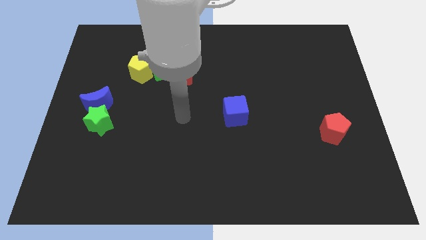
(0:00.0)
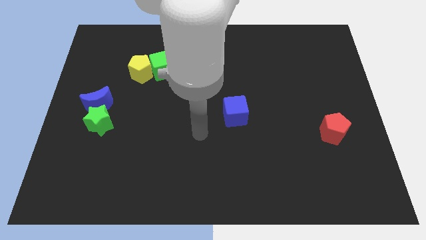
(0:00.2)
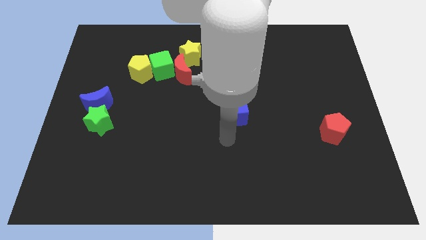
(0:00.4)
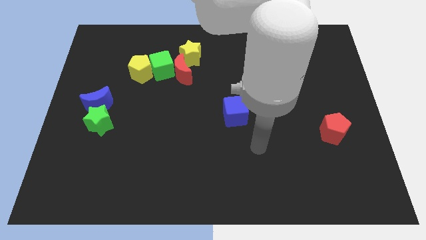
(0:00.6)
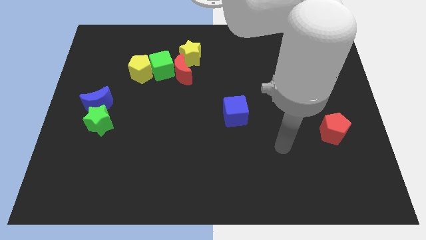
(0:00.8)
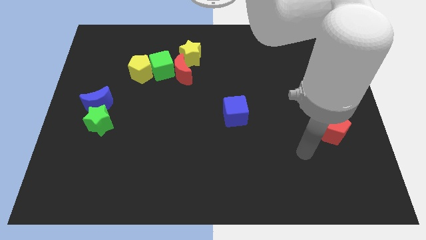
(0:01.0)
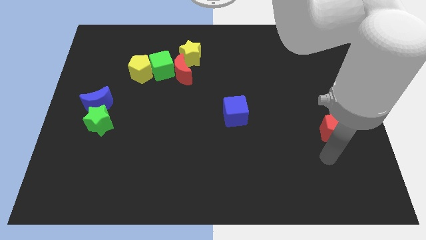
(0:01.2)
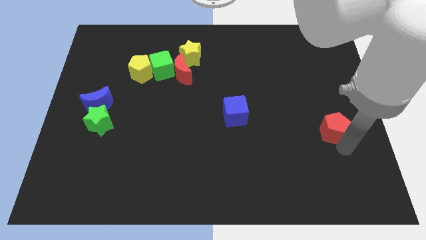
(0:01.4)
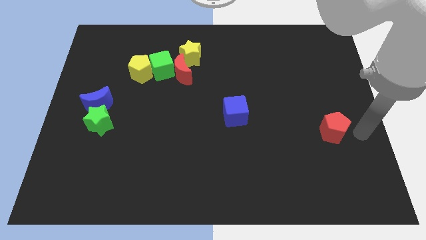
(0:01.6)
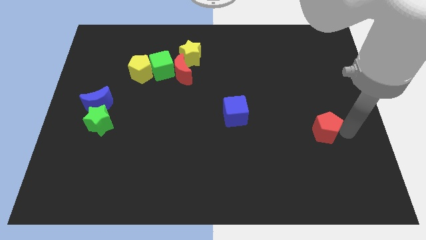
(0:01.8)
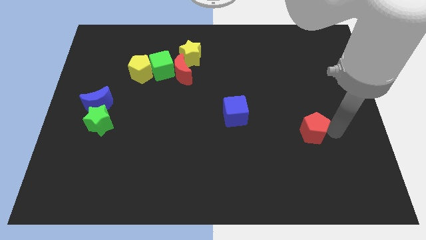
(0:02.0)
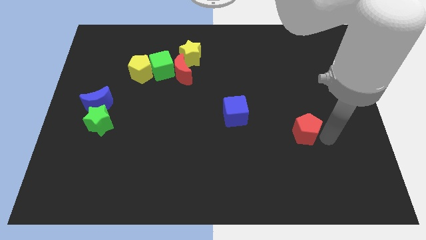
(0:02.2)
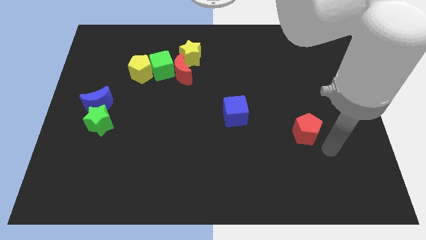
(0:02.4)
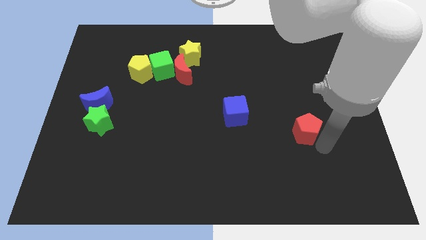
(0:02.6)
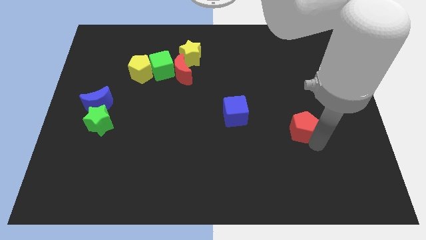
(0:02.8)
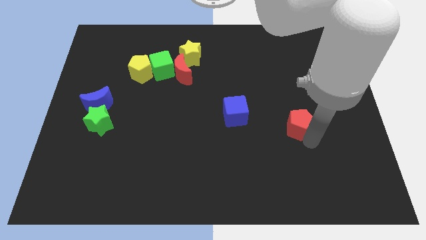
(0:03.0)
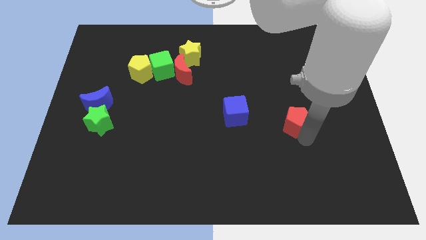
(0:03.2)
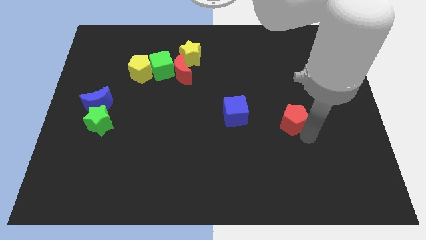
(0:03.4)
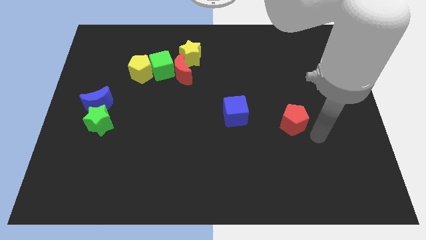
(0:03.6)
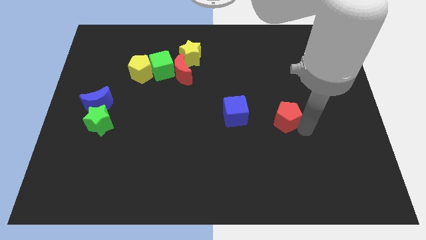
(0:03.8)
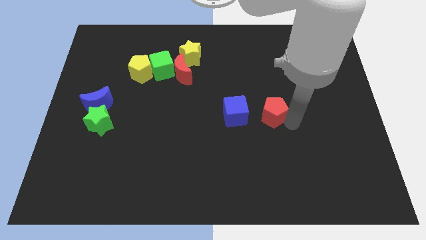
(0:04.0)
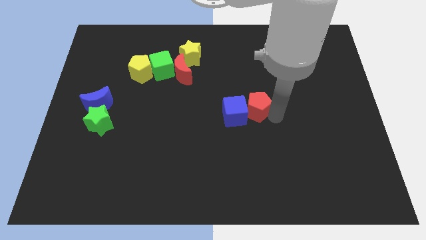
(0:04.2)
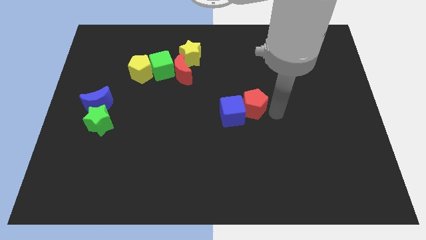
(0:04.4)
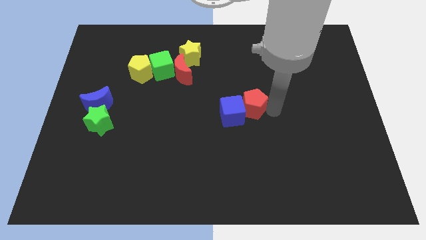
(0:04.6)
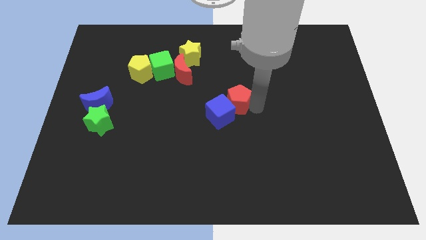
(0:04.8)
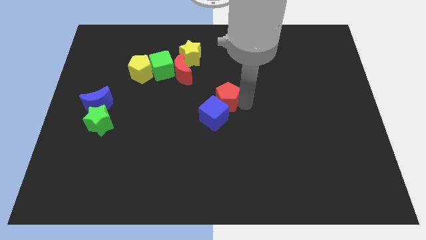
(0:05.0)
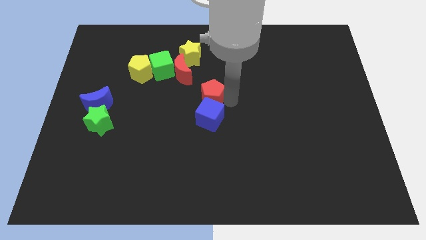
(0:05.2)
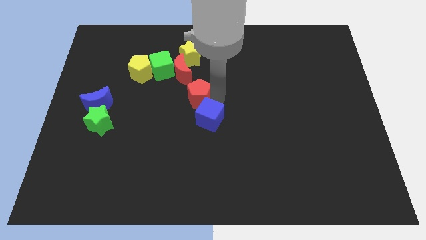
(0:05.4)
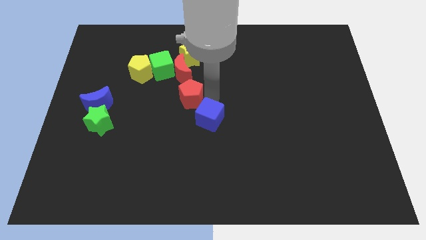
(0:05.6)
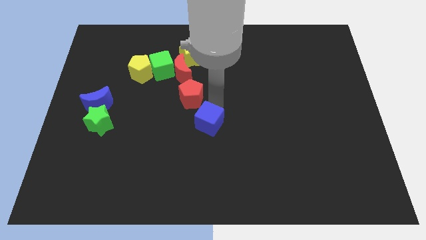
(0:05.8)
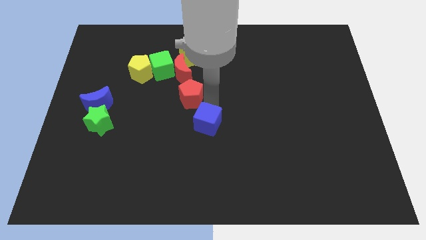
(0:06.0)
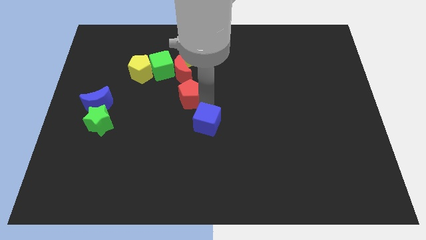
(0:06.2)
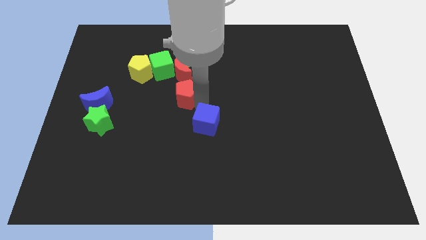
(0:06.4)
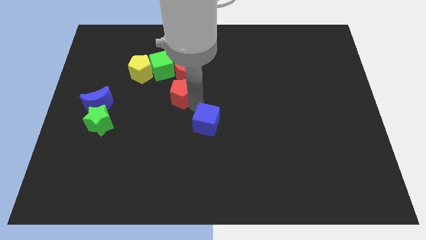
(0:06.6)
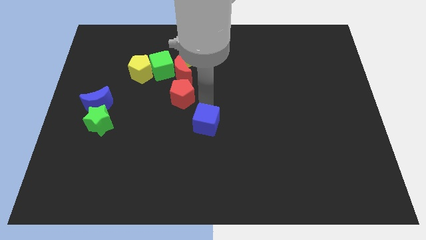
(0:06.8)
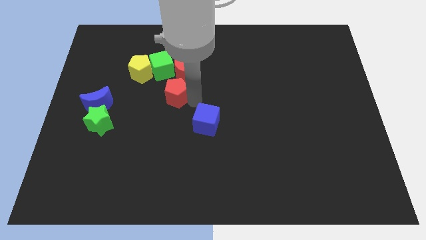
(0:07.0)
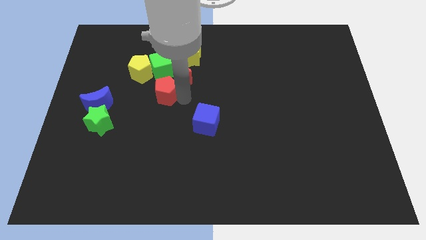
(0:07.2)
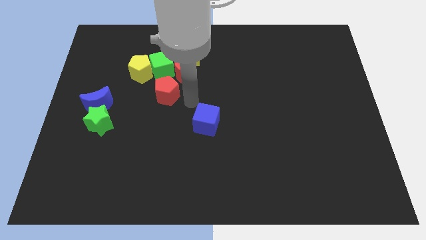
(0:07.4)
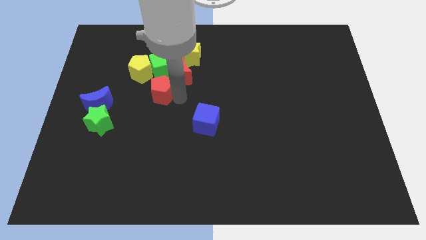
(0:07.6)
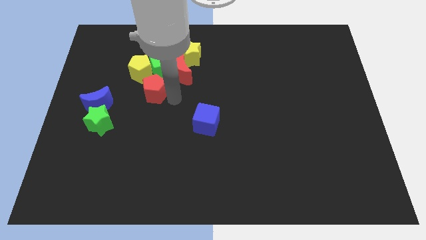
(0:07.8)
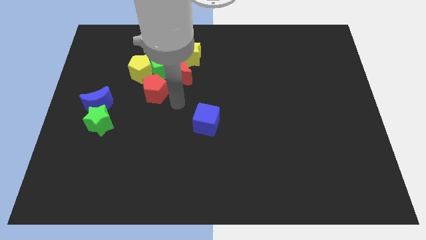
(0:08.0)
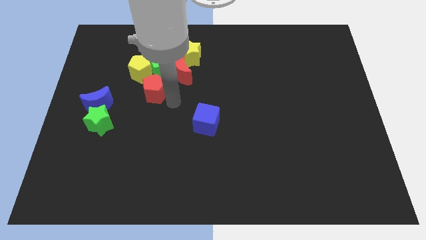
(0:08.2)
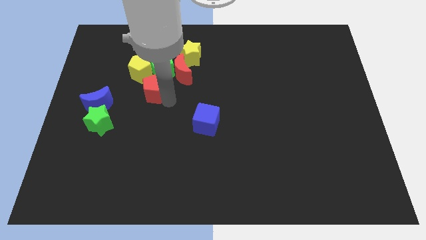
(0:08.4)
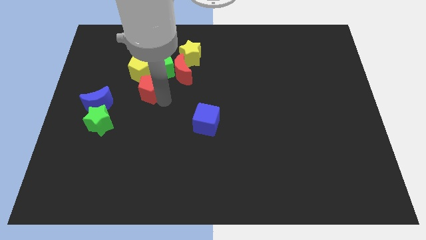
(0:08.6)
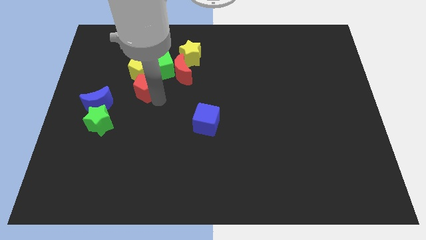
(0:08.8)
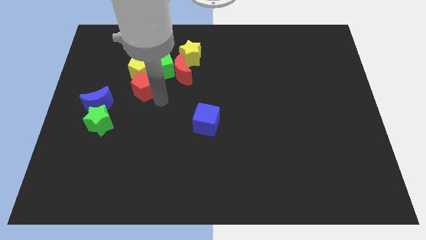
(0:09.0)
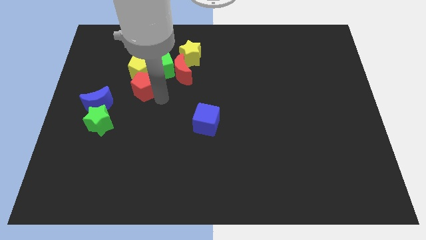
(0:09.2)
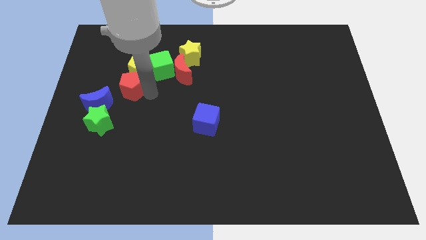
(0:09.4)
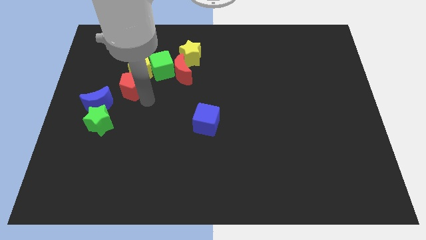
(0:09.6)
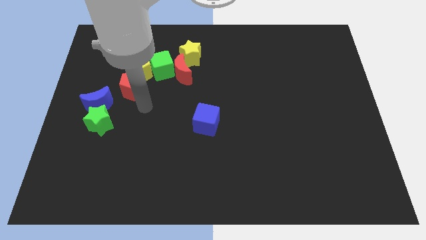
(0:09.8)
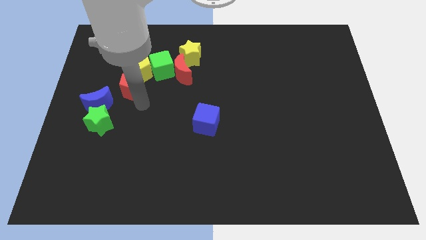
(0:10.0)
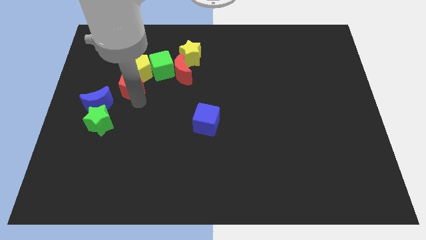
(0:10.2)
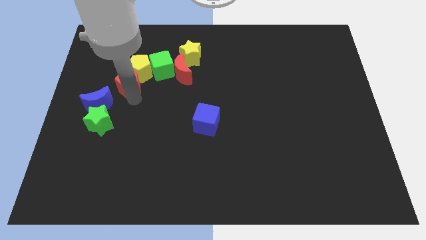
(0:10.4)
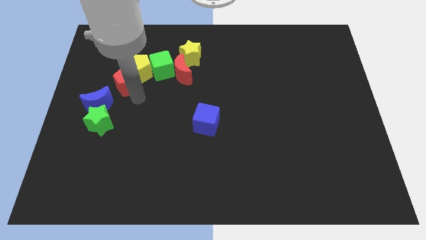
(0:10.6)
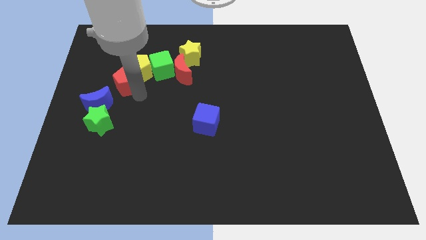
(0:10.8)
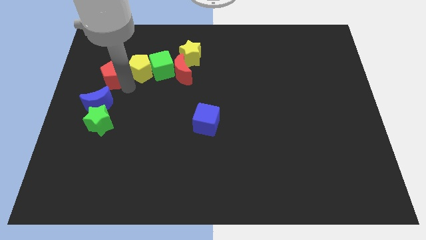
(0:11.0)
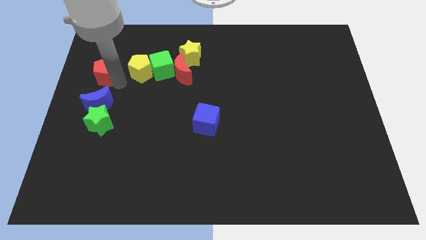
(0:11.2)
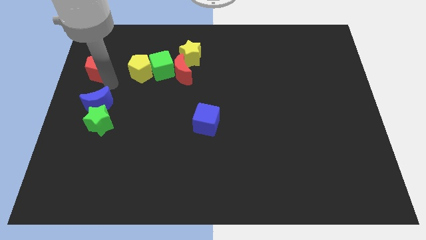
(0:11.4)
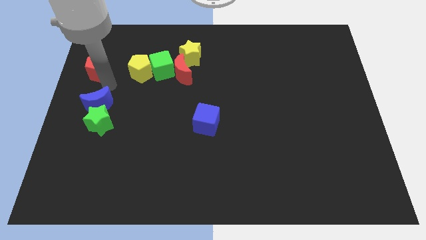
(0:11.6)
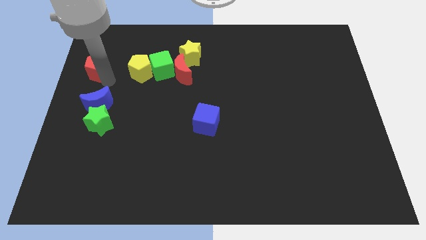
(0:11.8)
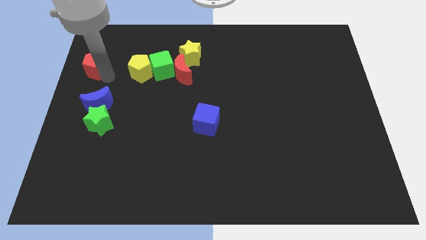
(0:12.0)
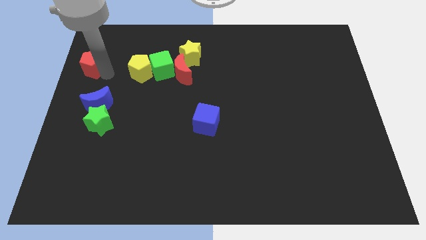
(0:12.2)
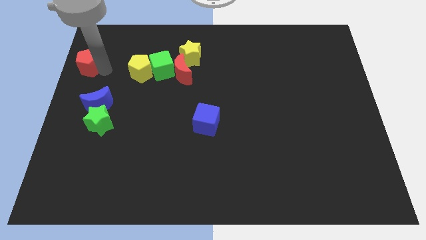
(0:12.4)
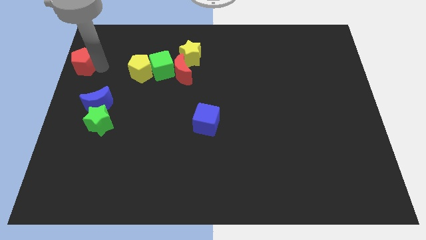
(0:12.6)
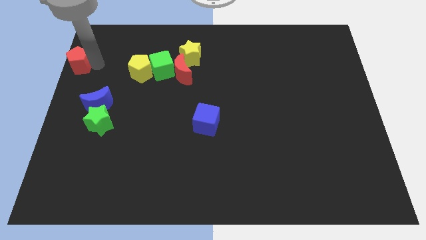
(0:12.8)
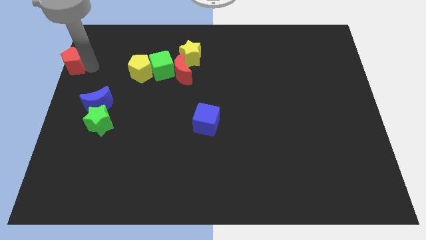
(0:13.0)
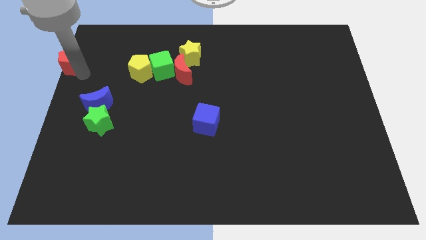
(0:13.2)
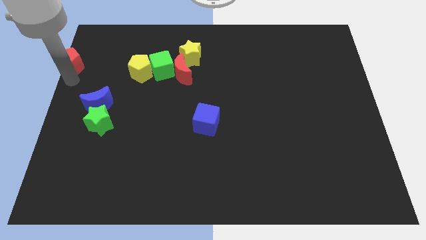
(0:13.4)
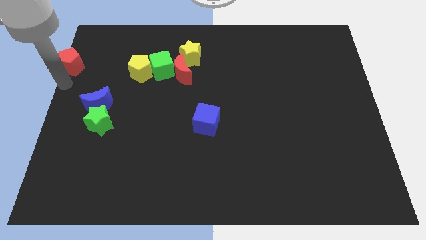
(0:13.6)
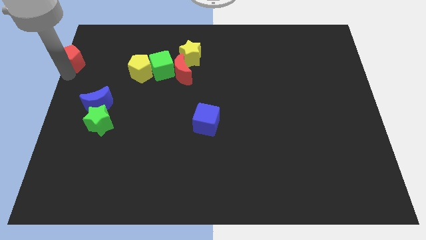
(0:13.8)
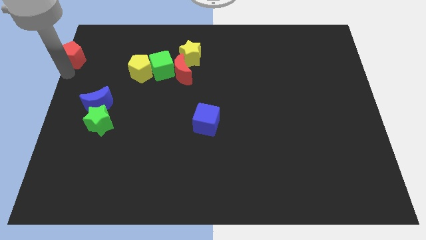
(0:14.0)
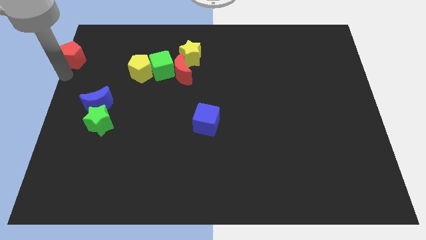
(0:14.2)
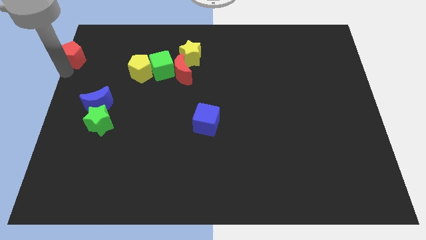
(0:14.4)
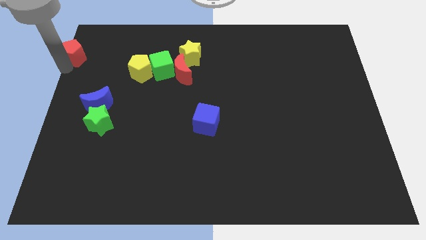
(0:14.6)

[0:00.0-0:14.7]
slide the red pentagon to the upper left corner
